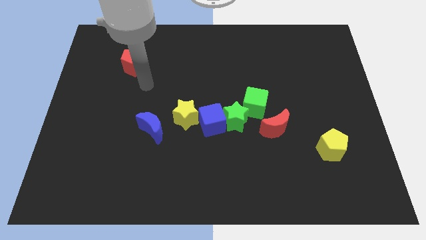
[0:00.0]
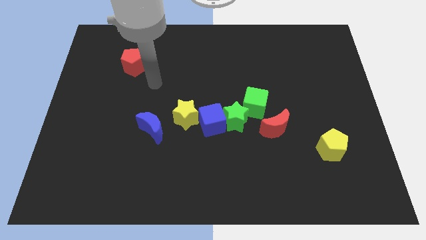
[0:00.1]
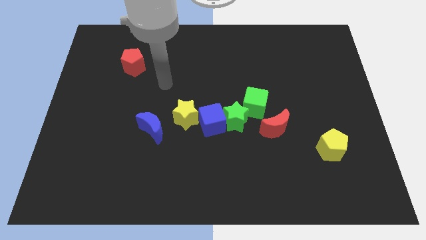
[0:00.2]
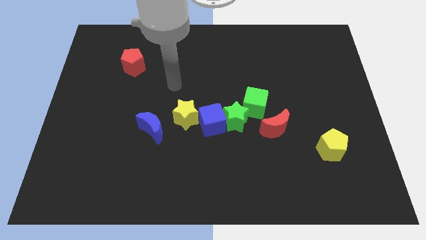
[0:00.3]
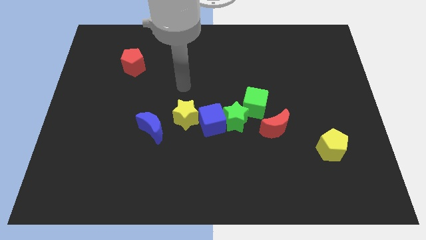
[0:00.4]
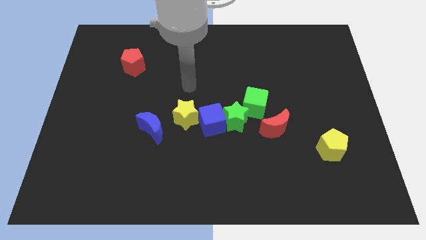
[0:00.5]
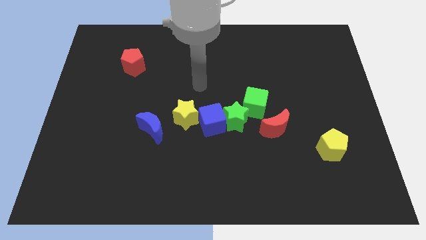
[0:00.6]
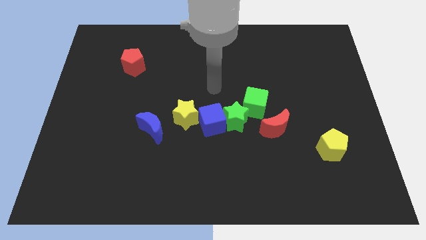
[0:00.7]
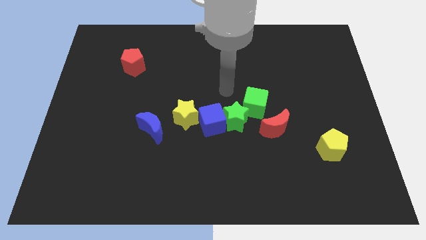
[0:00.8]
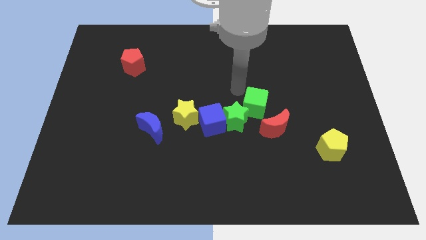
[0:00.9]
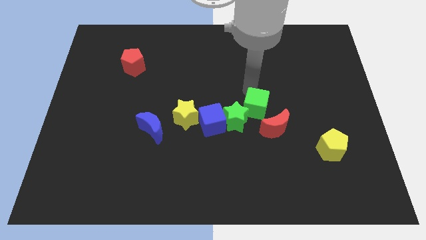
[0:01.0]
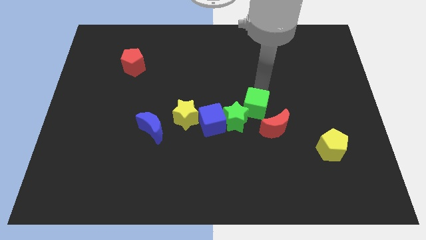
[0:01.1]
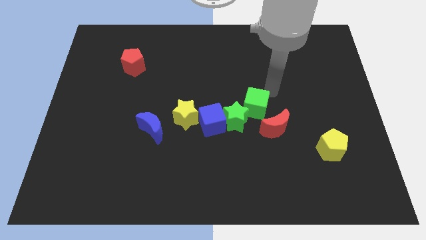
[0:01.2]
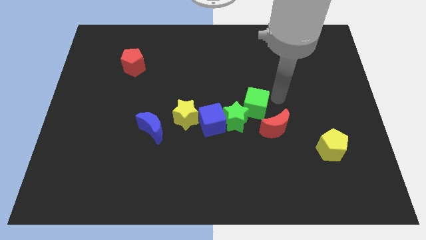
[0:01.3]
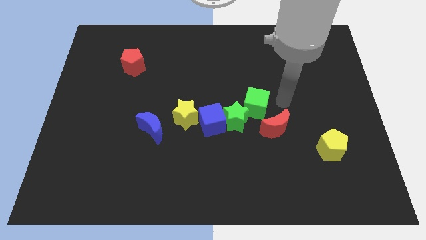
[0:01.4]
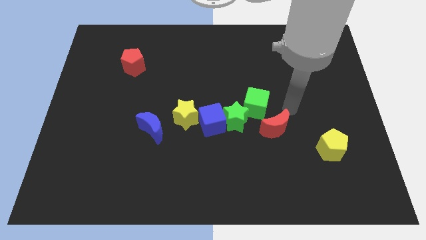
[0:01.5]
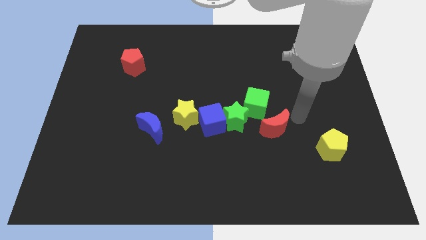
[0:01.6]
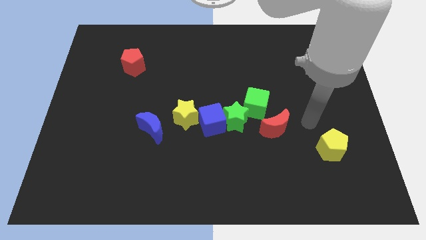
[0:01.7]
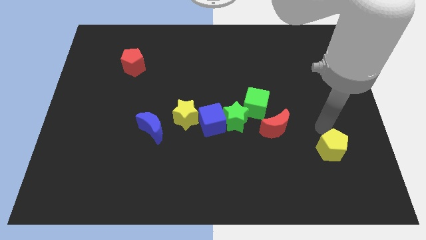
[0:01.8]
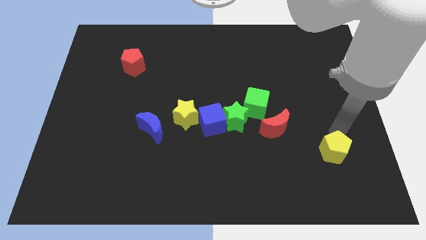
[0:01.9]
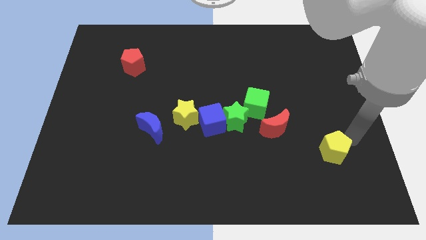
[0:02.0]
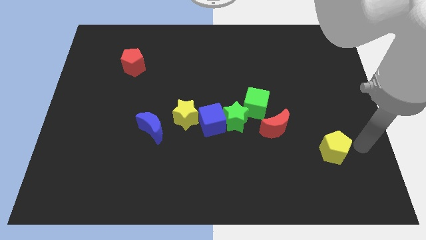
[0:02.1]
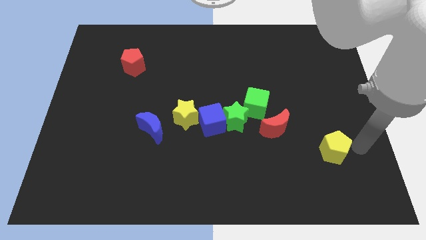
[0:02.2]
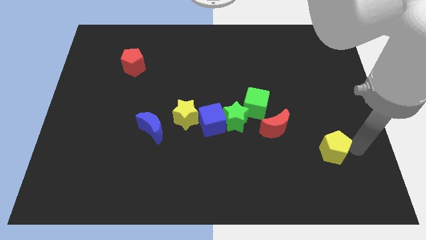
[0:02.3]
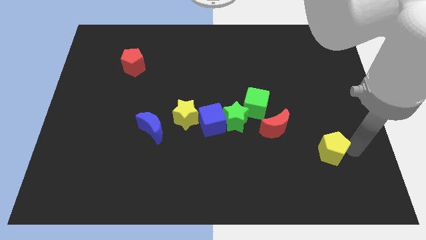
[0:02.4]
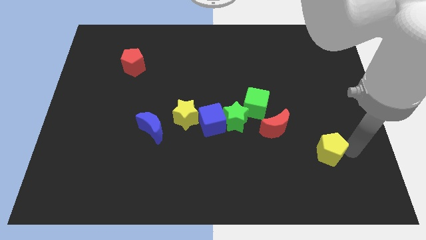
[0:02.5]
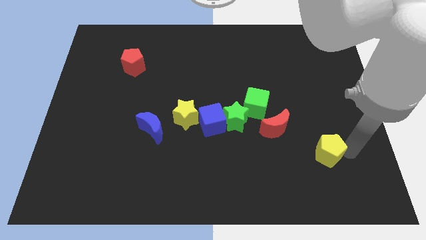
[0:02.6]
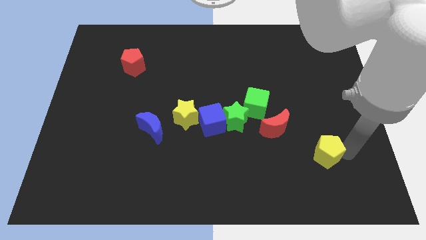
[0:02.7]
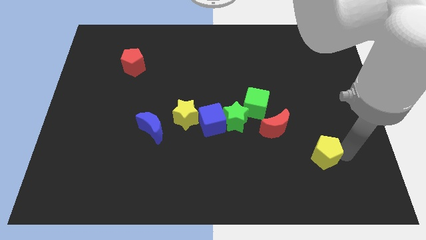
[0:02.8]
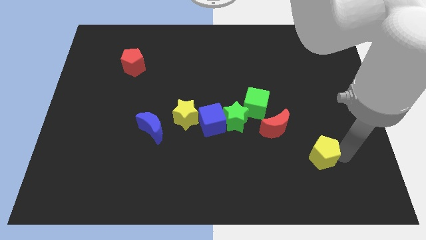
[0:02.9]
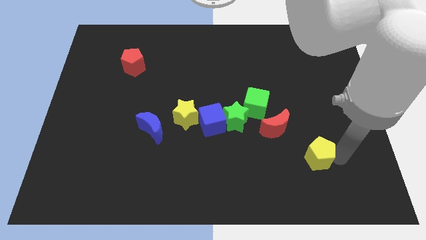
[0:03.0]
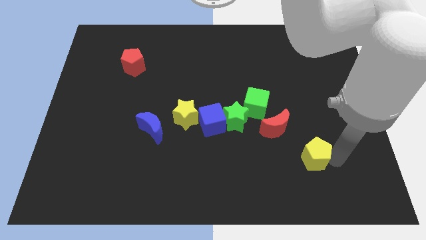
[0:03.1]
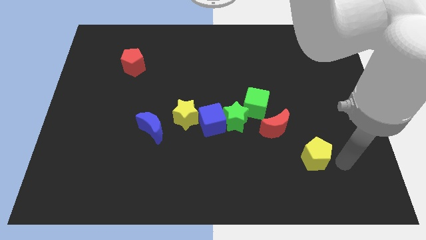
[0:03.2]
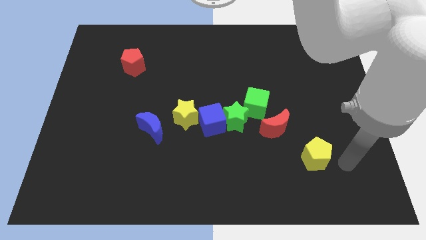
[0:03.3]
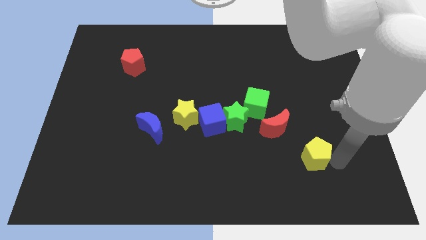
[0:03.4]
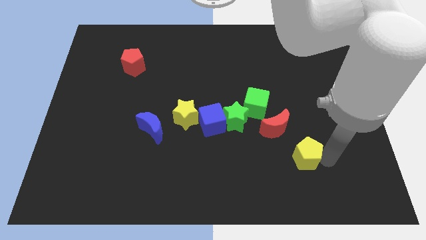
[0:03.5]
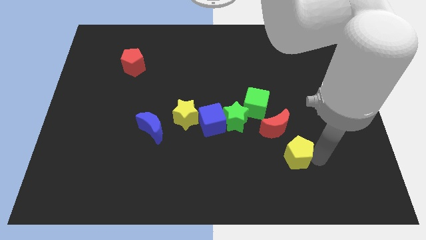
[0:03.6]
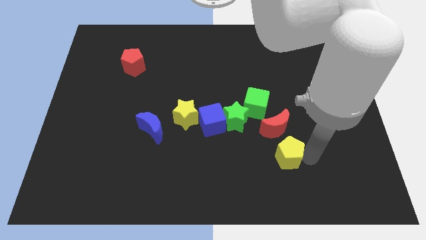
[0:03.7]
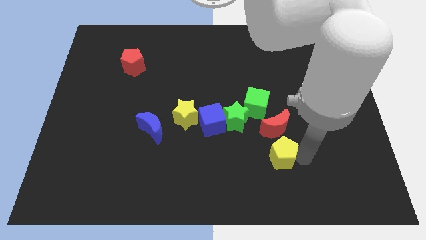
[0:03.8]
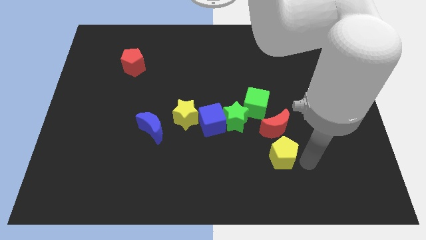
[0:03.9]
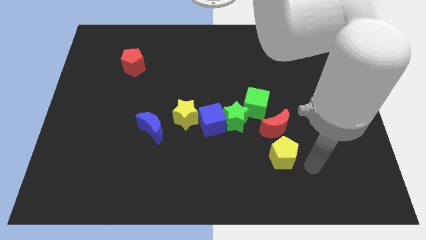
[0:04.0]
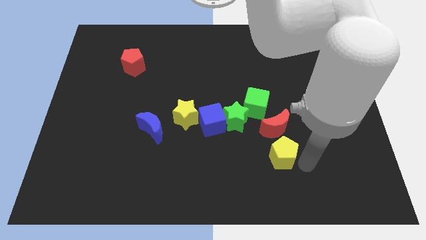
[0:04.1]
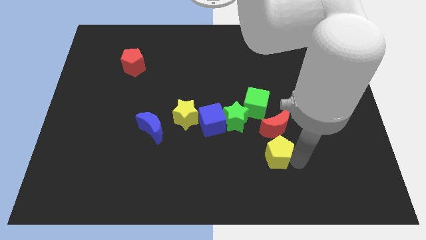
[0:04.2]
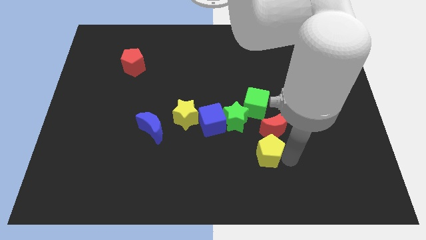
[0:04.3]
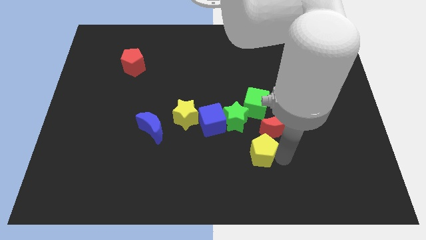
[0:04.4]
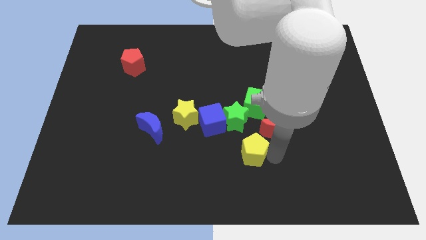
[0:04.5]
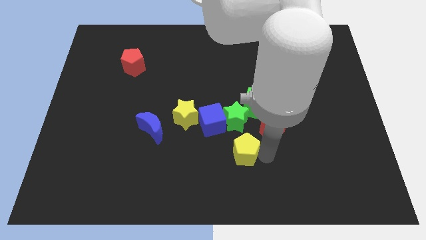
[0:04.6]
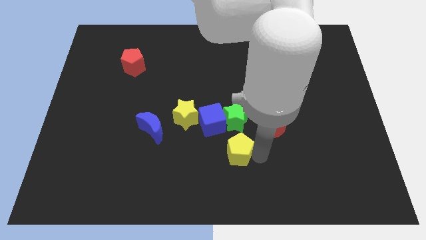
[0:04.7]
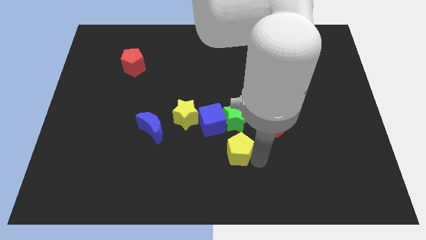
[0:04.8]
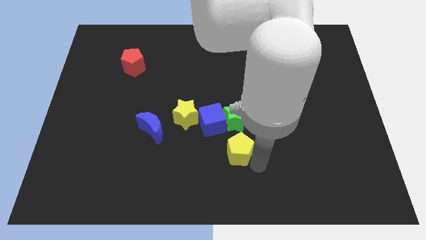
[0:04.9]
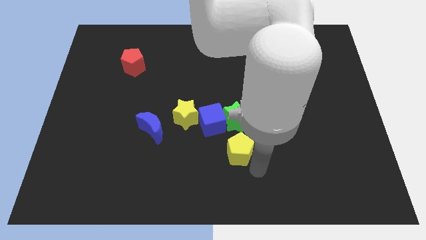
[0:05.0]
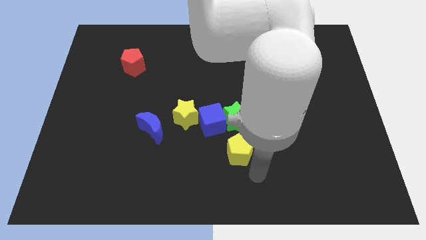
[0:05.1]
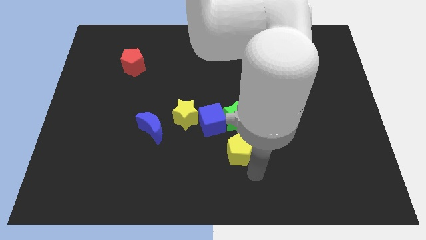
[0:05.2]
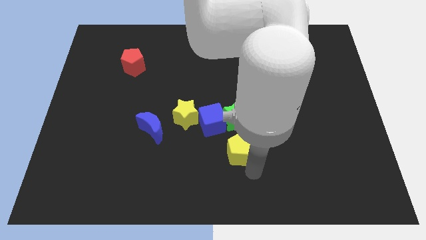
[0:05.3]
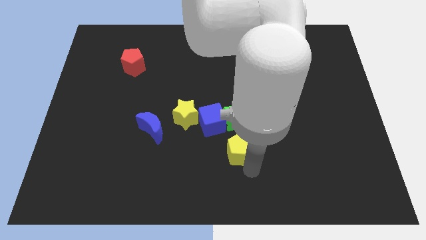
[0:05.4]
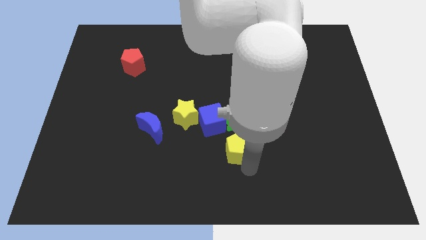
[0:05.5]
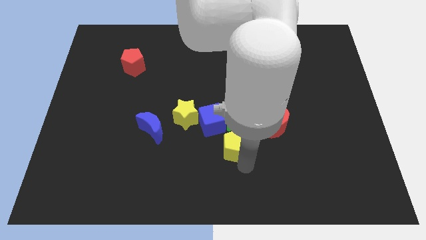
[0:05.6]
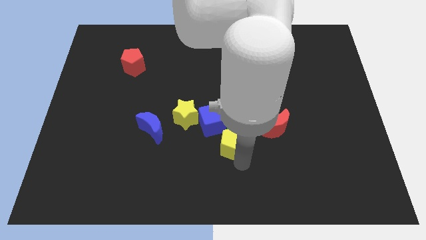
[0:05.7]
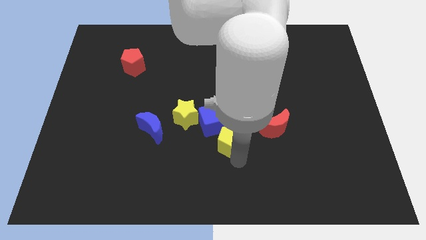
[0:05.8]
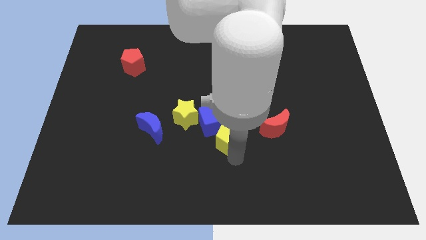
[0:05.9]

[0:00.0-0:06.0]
move the yellow pentagon to the blue cube
